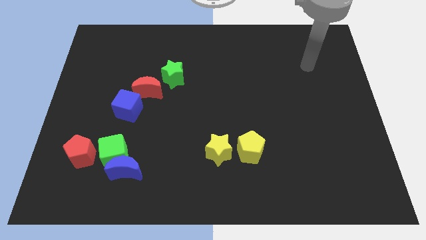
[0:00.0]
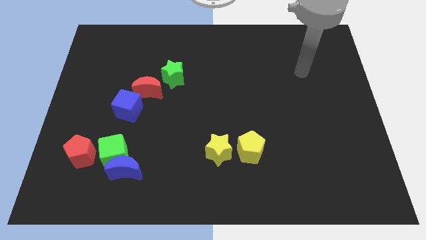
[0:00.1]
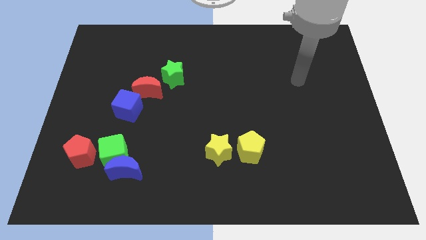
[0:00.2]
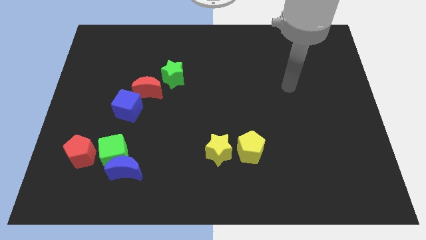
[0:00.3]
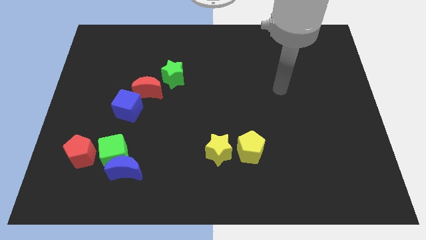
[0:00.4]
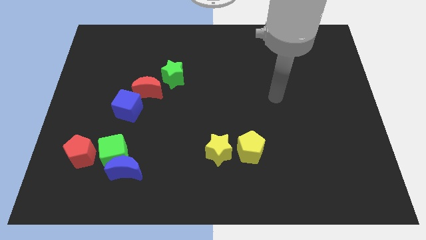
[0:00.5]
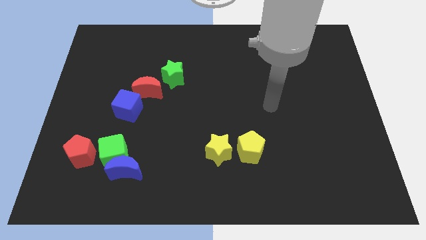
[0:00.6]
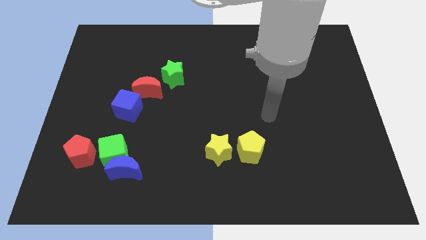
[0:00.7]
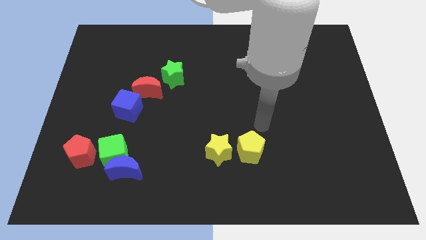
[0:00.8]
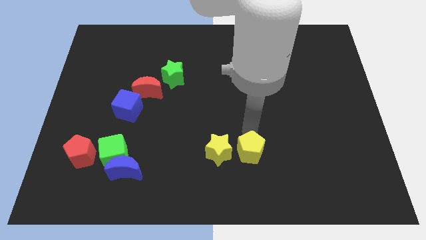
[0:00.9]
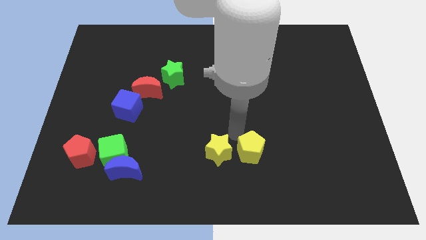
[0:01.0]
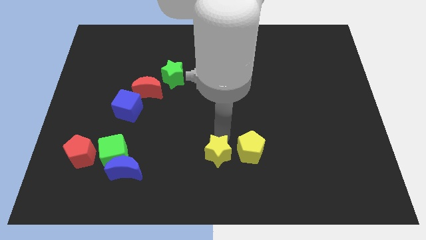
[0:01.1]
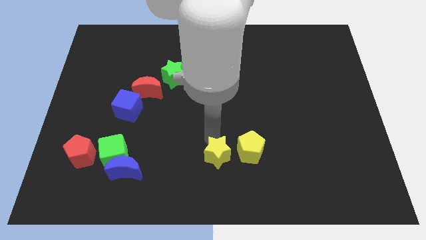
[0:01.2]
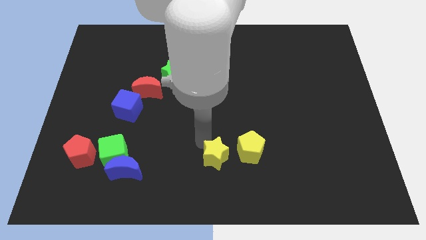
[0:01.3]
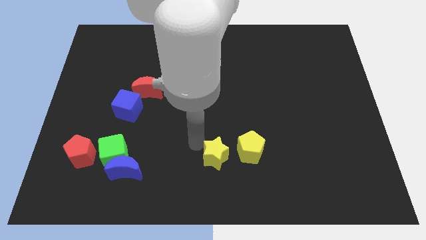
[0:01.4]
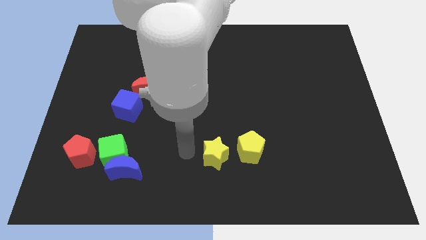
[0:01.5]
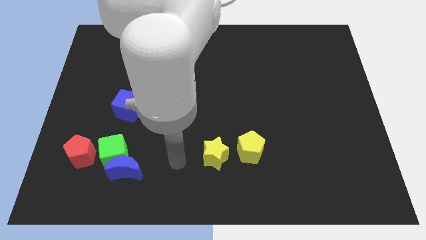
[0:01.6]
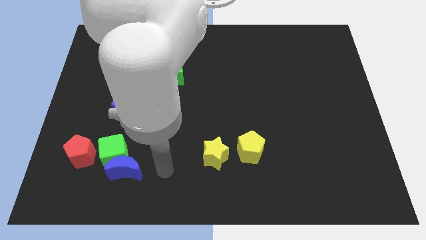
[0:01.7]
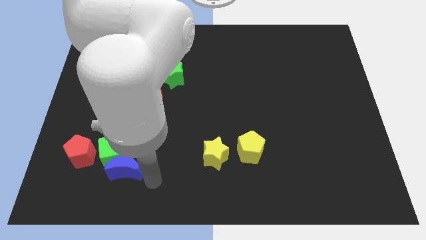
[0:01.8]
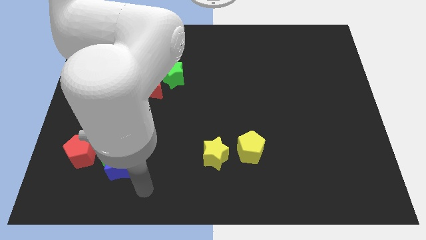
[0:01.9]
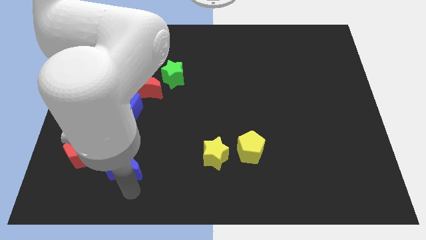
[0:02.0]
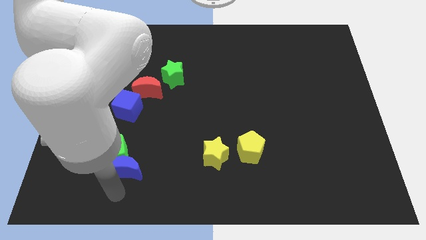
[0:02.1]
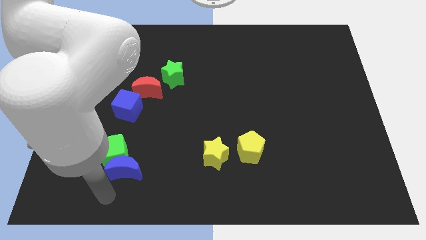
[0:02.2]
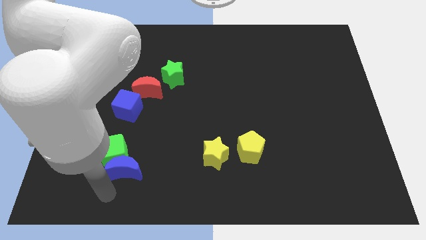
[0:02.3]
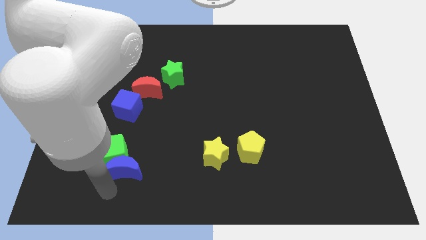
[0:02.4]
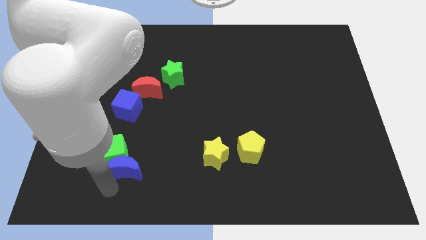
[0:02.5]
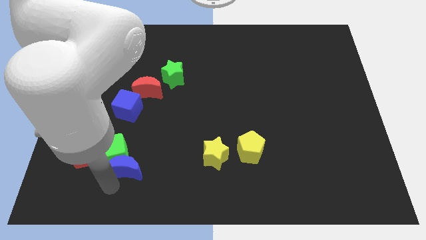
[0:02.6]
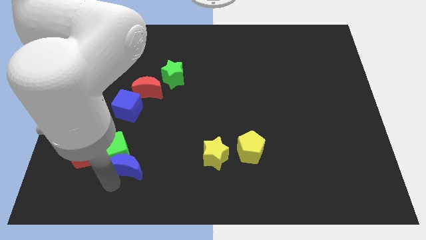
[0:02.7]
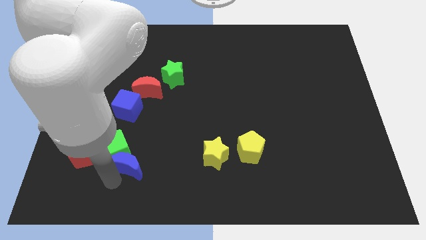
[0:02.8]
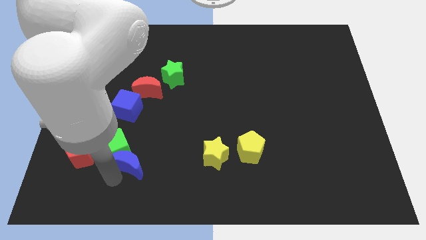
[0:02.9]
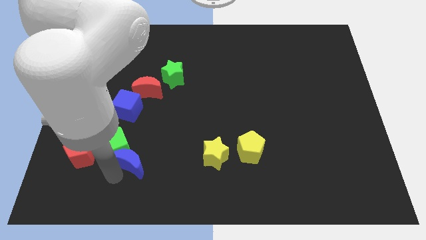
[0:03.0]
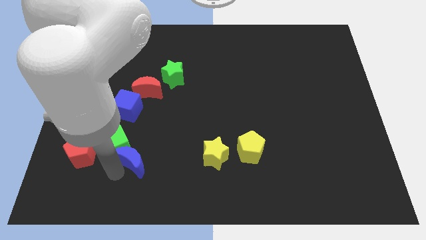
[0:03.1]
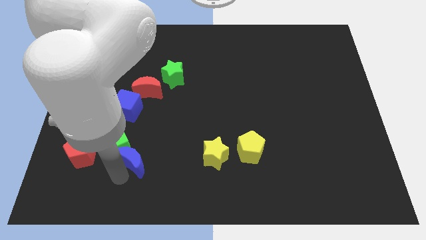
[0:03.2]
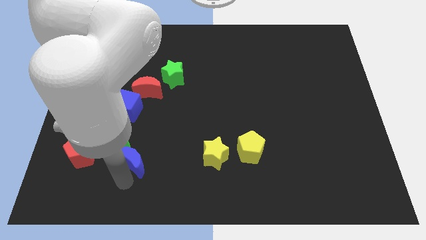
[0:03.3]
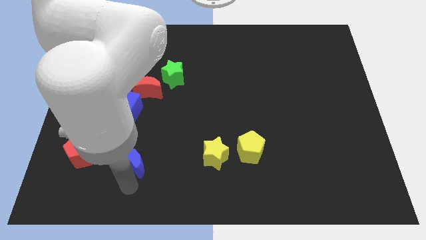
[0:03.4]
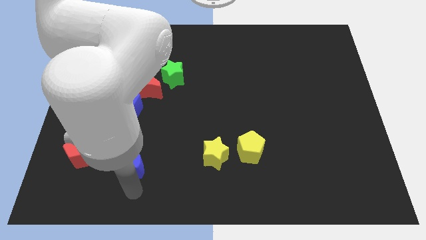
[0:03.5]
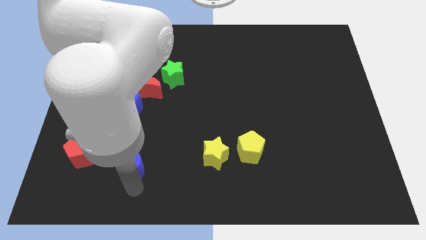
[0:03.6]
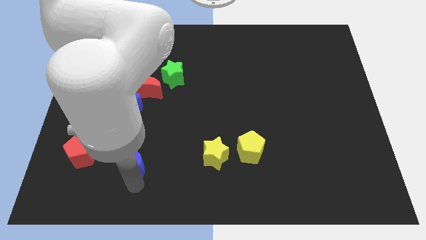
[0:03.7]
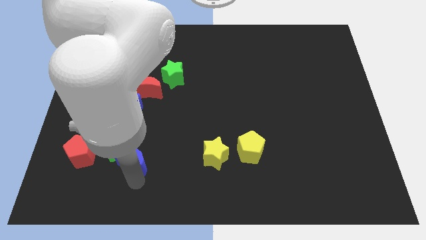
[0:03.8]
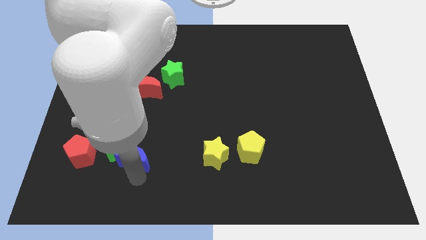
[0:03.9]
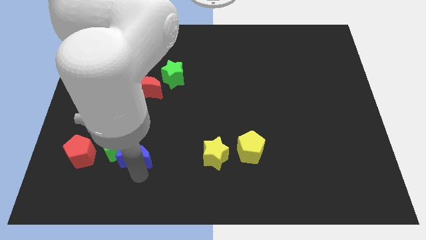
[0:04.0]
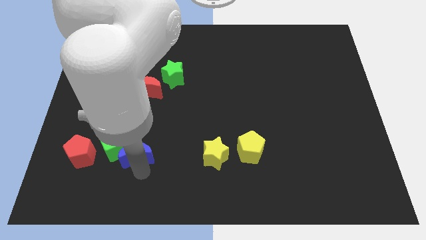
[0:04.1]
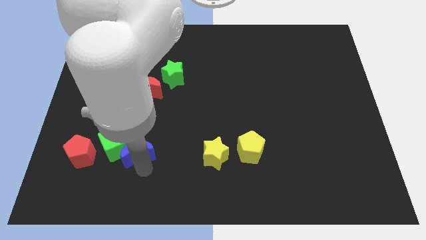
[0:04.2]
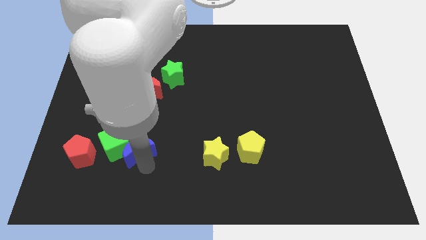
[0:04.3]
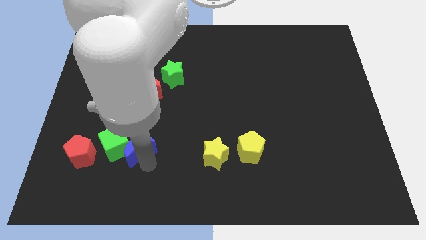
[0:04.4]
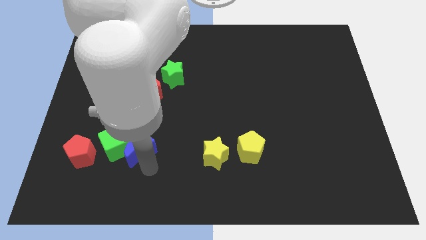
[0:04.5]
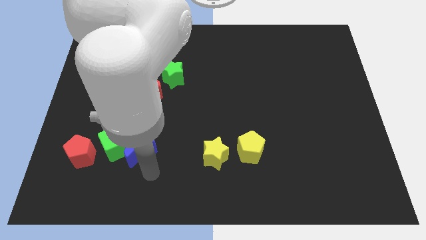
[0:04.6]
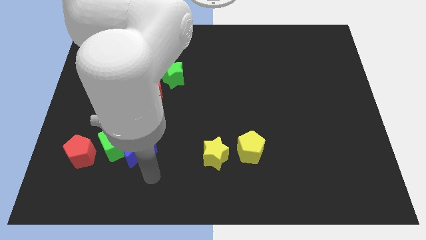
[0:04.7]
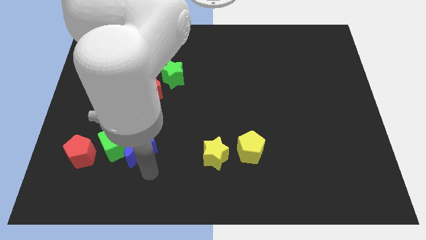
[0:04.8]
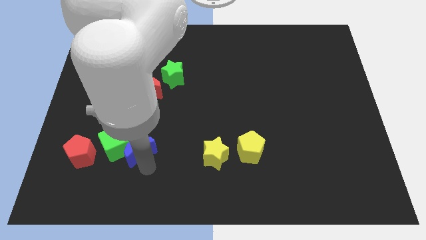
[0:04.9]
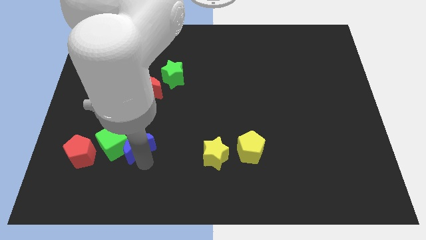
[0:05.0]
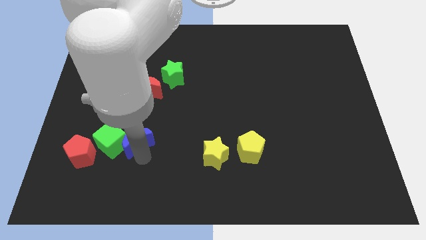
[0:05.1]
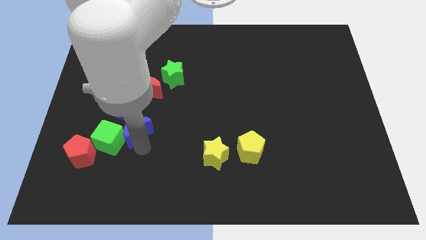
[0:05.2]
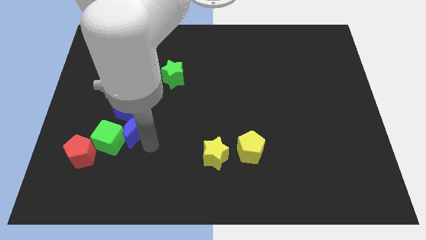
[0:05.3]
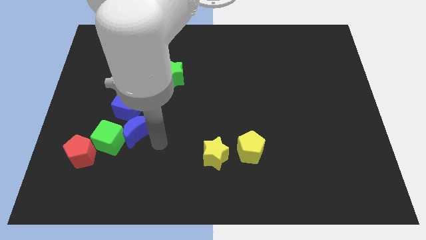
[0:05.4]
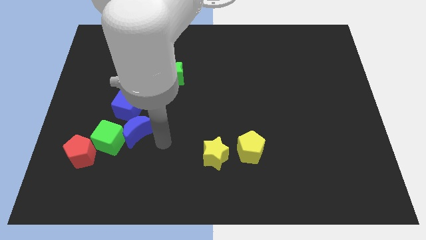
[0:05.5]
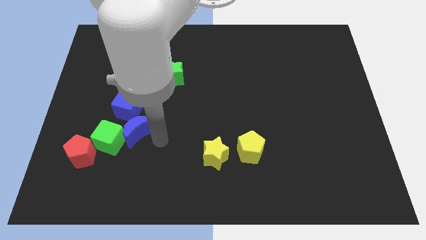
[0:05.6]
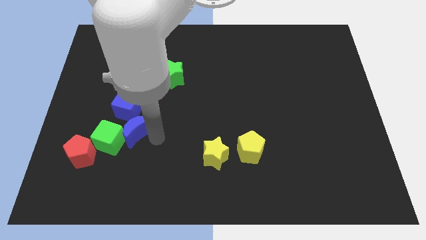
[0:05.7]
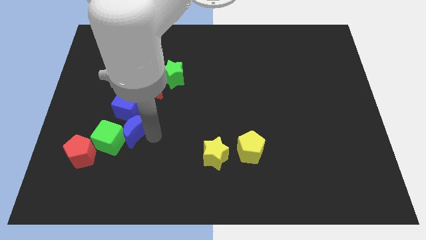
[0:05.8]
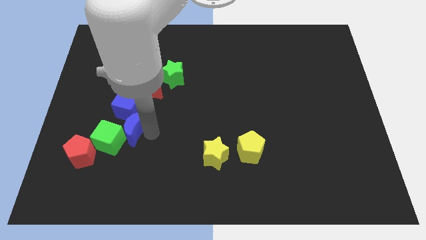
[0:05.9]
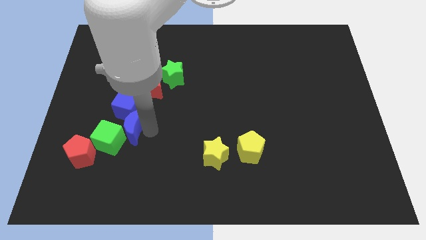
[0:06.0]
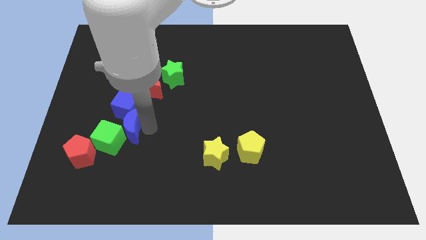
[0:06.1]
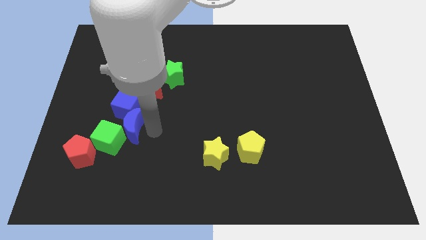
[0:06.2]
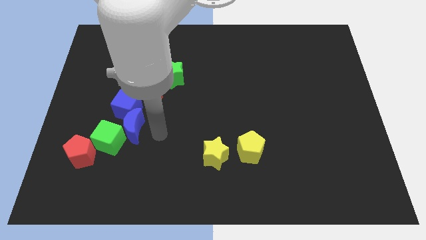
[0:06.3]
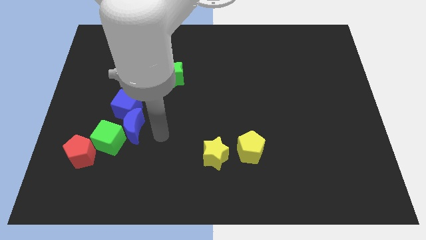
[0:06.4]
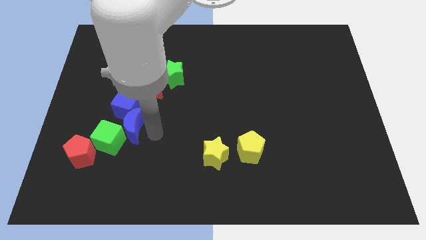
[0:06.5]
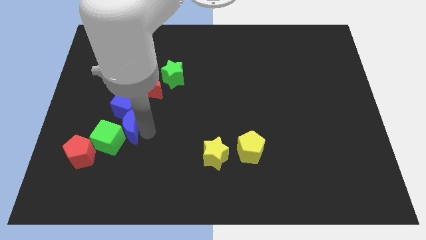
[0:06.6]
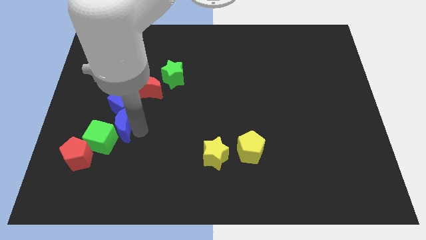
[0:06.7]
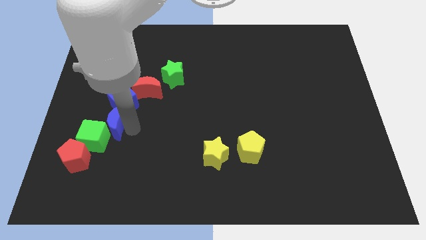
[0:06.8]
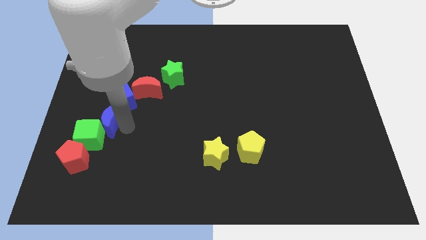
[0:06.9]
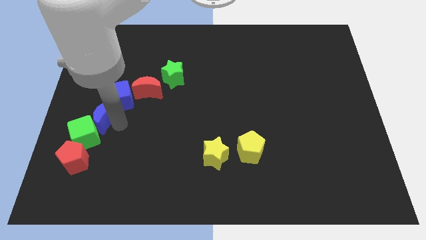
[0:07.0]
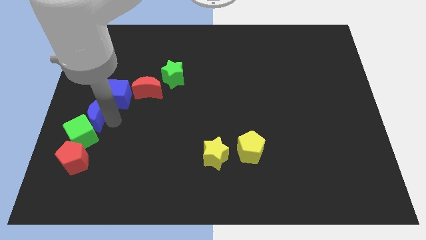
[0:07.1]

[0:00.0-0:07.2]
push the blue moon to the left side
